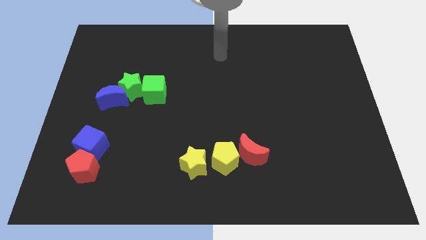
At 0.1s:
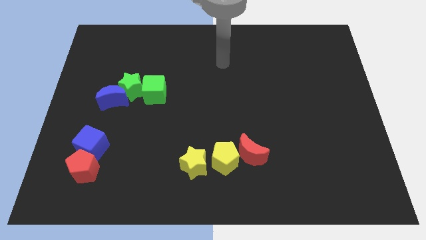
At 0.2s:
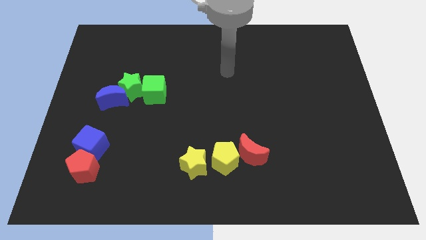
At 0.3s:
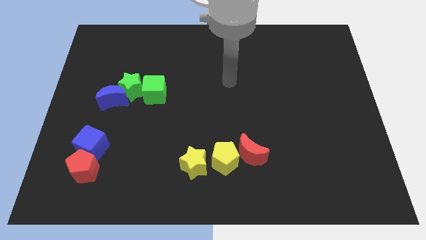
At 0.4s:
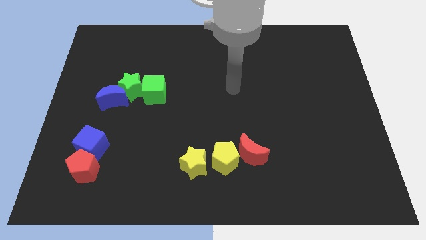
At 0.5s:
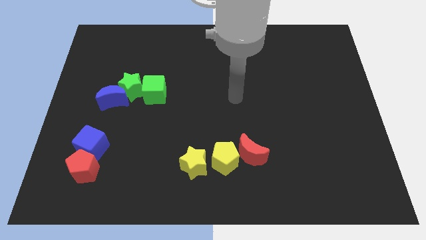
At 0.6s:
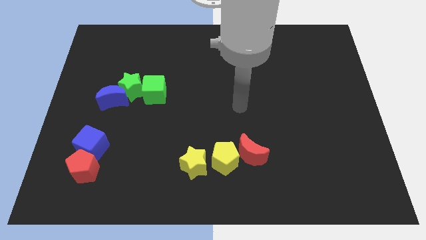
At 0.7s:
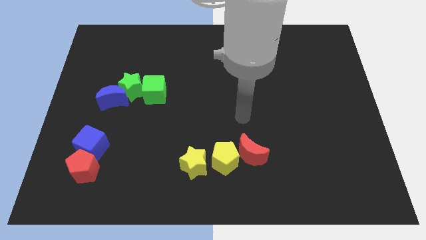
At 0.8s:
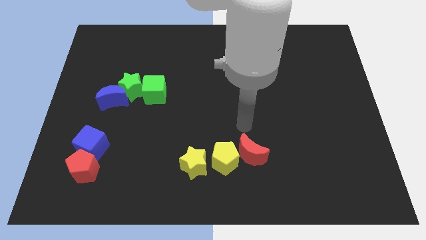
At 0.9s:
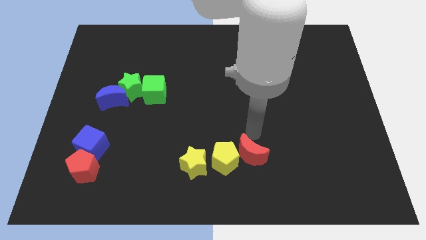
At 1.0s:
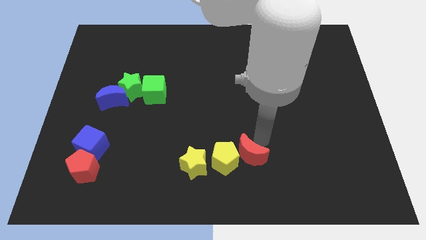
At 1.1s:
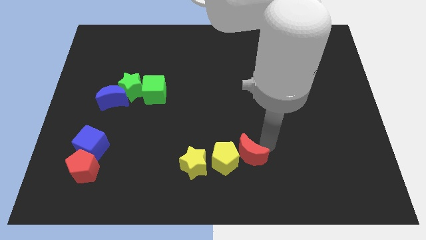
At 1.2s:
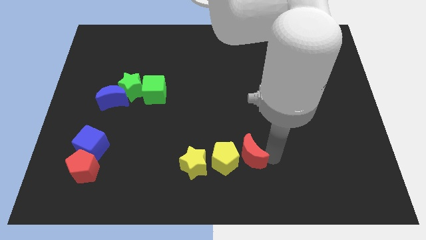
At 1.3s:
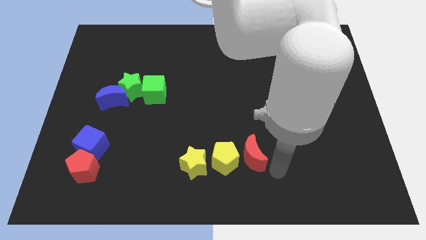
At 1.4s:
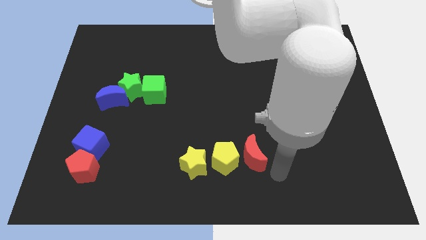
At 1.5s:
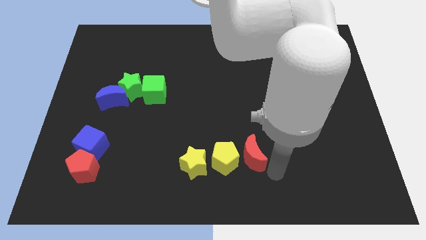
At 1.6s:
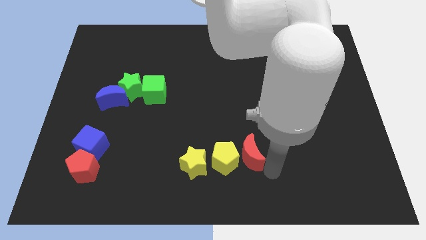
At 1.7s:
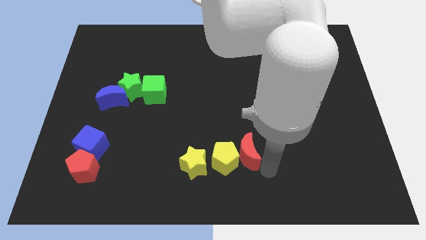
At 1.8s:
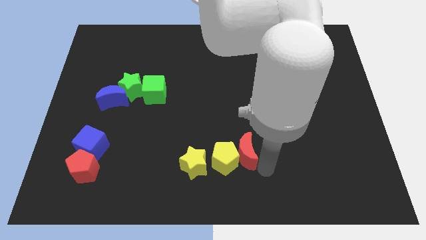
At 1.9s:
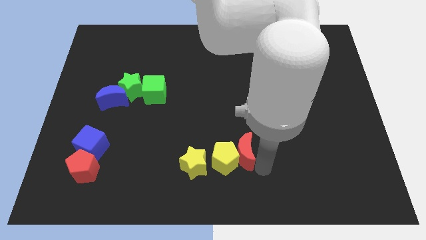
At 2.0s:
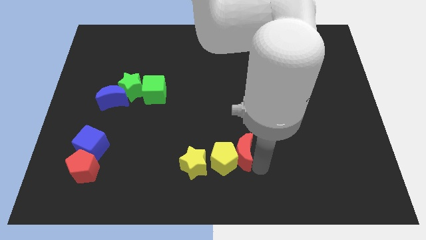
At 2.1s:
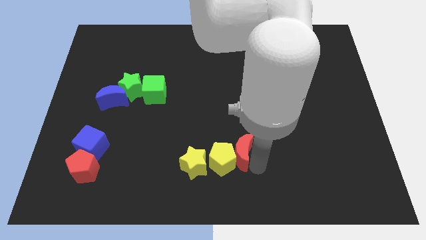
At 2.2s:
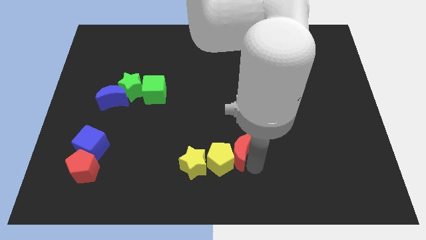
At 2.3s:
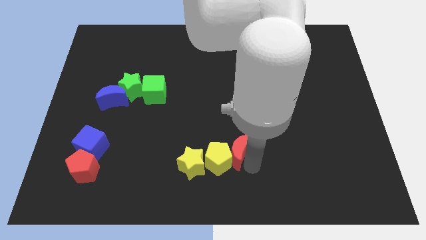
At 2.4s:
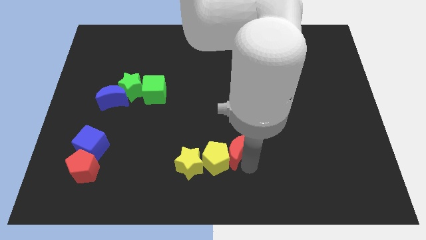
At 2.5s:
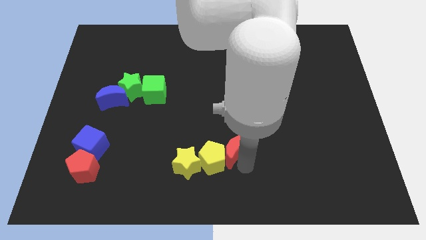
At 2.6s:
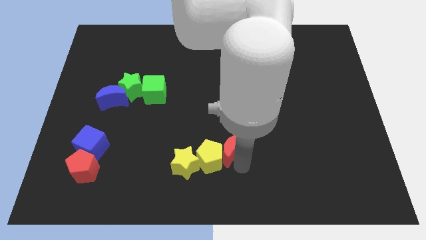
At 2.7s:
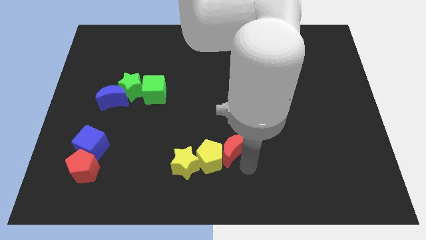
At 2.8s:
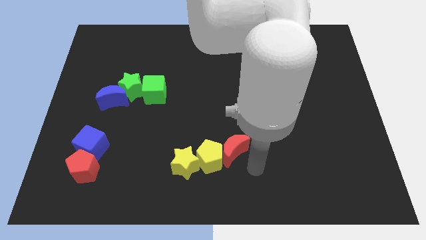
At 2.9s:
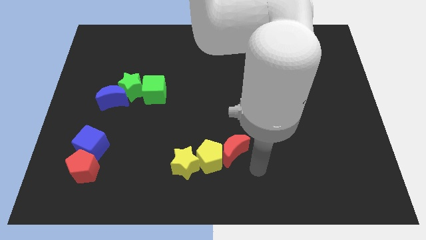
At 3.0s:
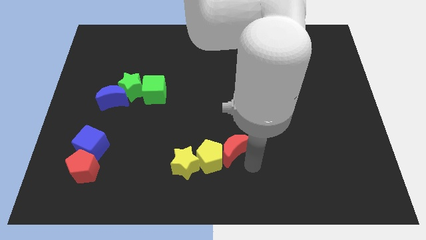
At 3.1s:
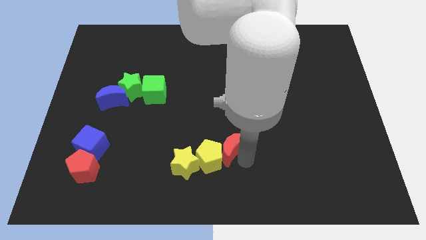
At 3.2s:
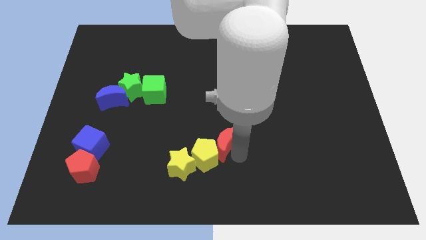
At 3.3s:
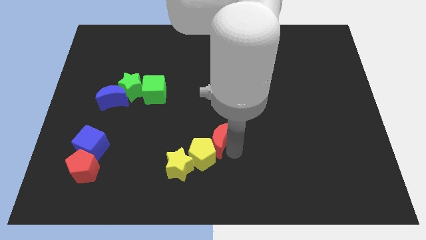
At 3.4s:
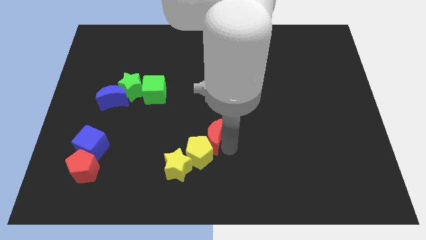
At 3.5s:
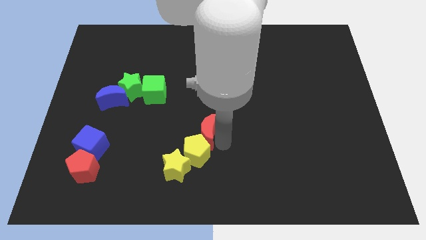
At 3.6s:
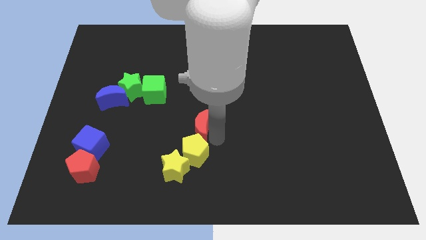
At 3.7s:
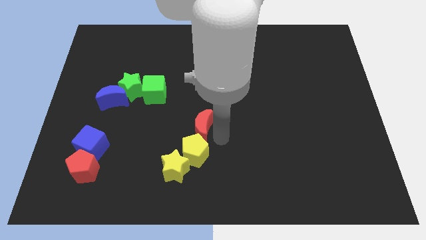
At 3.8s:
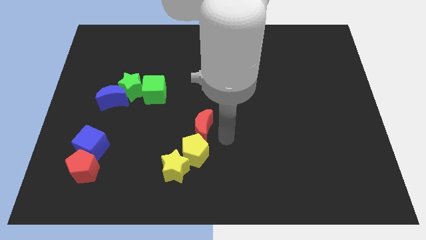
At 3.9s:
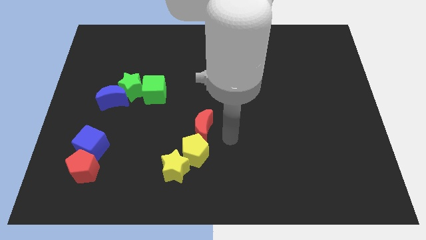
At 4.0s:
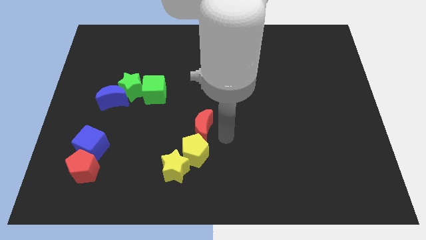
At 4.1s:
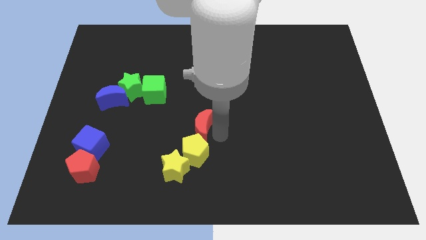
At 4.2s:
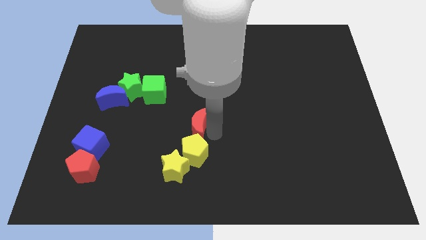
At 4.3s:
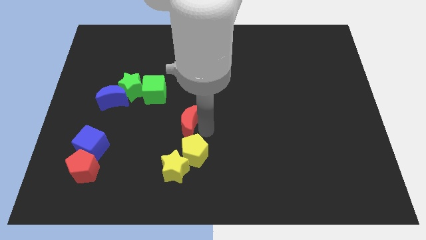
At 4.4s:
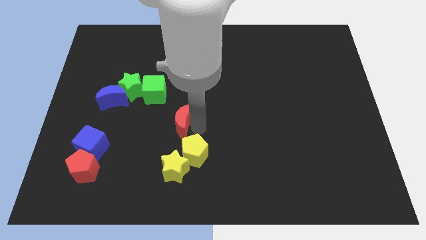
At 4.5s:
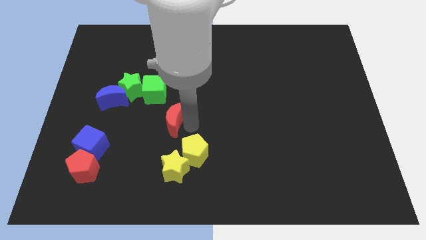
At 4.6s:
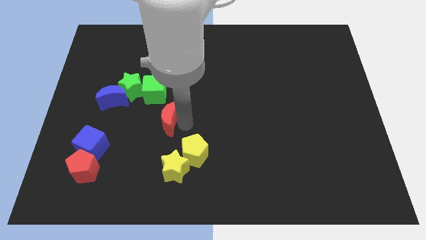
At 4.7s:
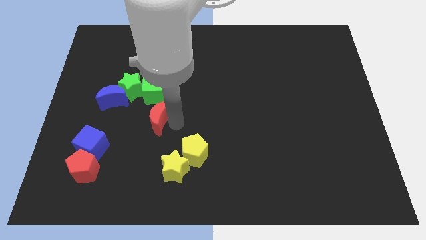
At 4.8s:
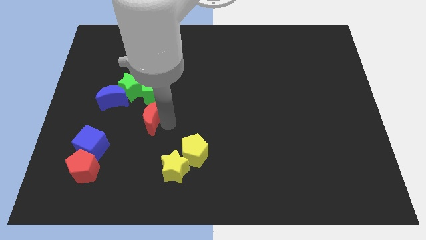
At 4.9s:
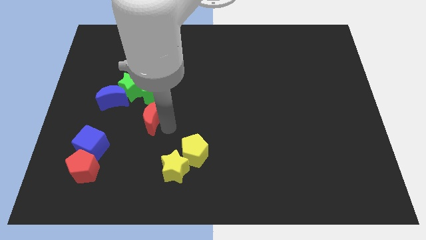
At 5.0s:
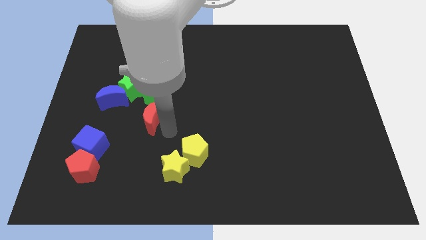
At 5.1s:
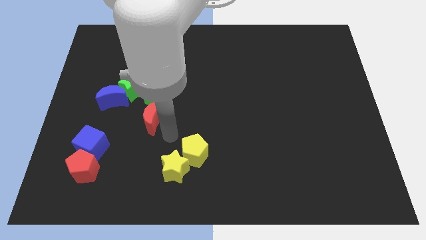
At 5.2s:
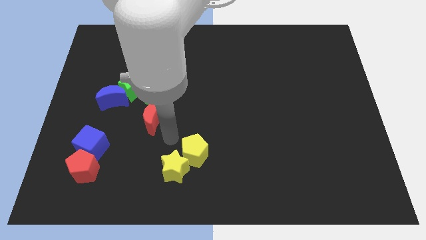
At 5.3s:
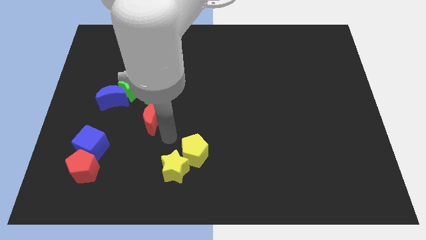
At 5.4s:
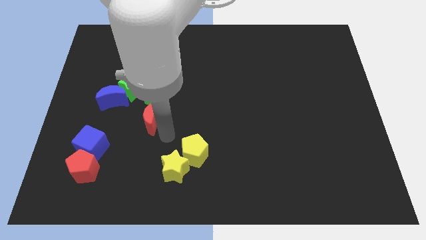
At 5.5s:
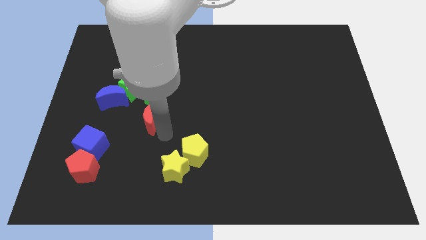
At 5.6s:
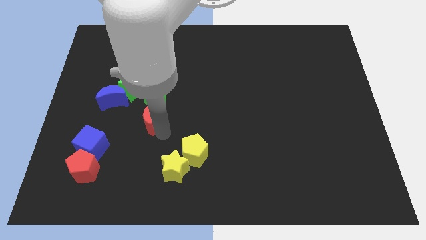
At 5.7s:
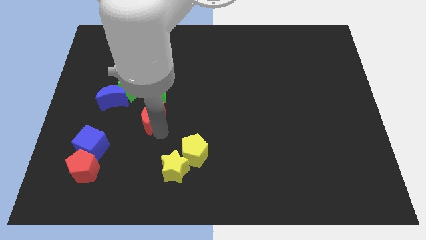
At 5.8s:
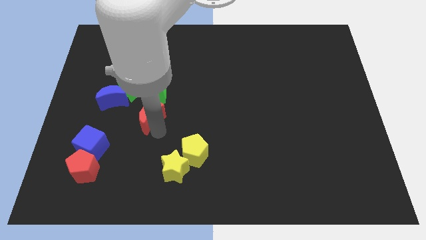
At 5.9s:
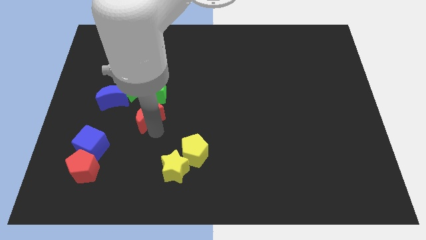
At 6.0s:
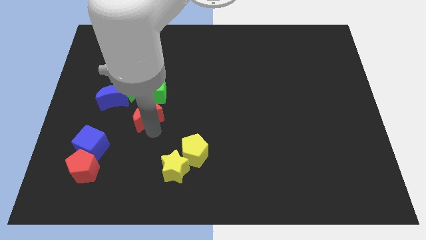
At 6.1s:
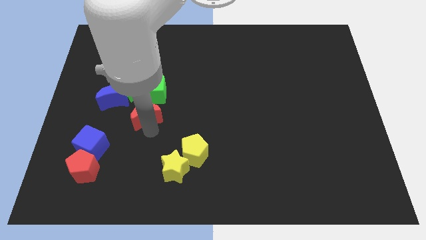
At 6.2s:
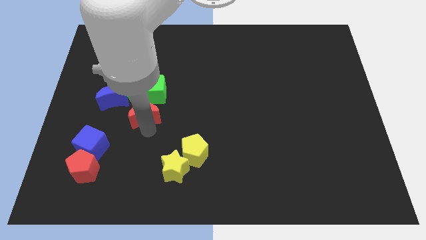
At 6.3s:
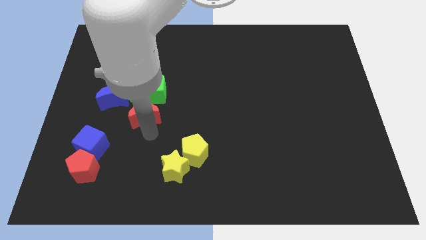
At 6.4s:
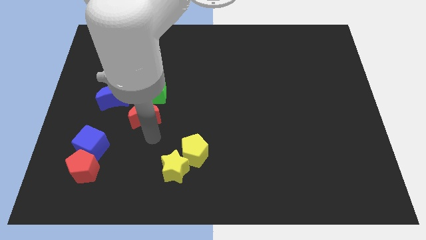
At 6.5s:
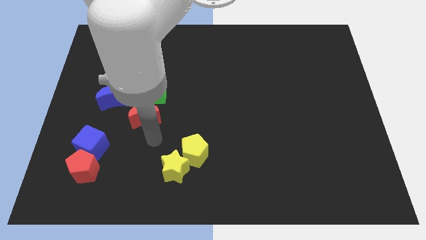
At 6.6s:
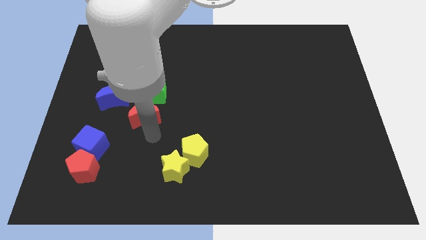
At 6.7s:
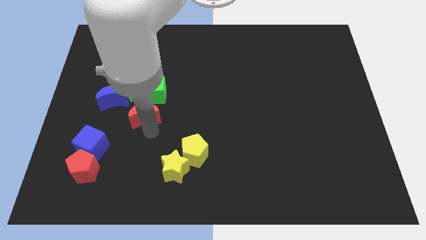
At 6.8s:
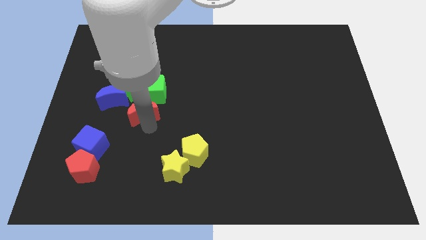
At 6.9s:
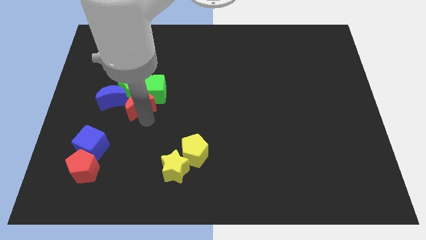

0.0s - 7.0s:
move the red moon to the green star
